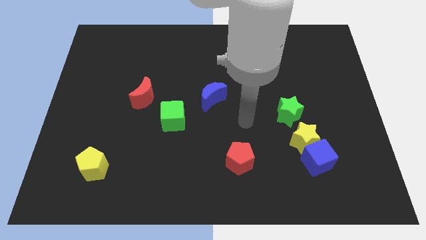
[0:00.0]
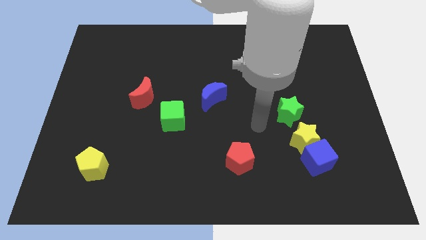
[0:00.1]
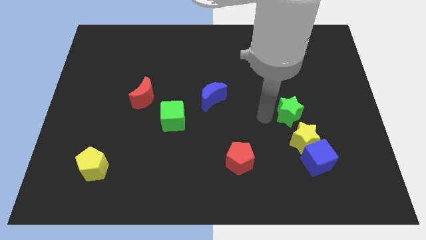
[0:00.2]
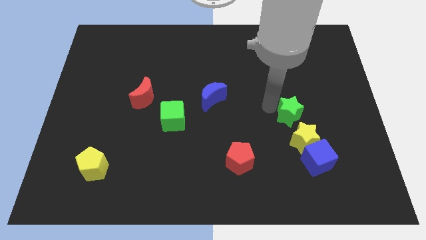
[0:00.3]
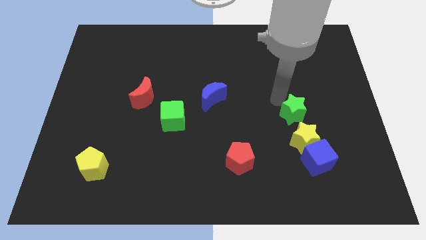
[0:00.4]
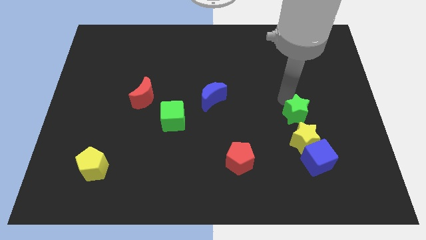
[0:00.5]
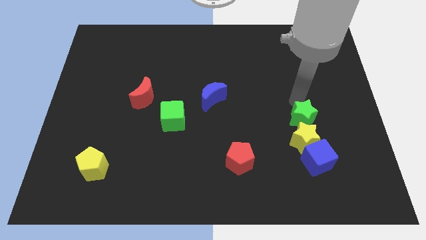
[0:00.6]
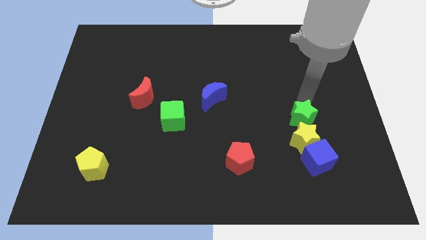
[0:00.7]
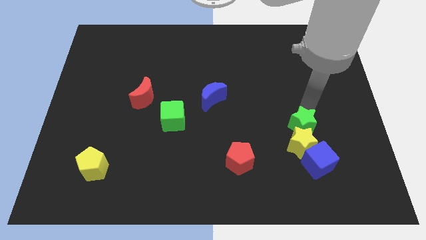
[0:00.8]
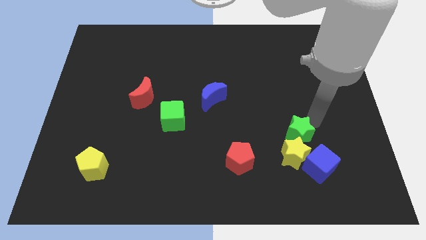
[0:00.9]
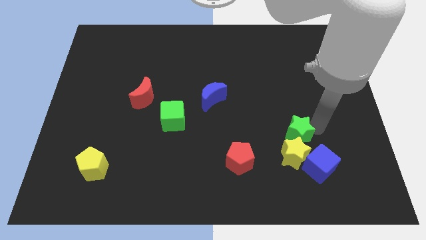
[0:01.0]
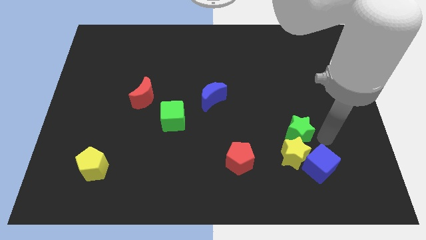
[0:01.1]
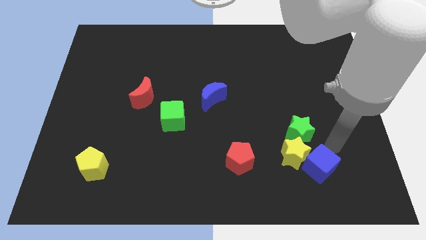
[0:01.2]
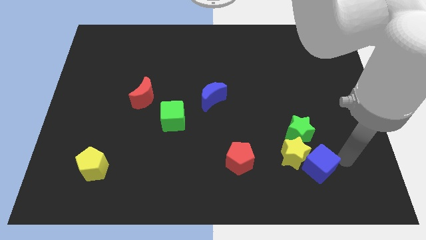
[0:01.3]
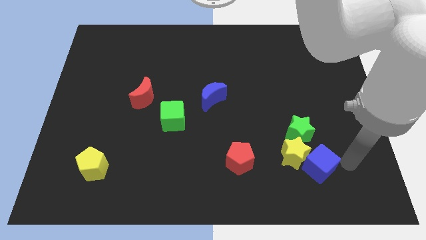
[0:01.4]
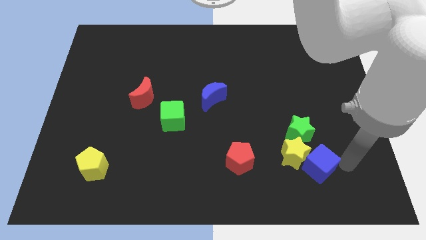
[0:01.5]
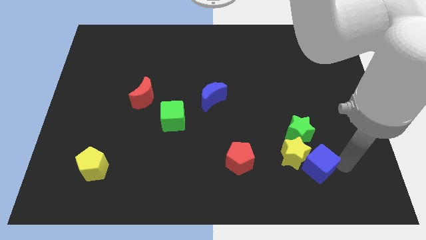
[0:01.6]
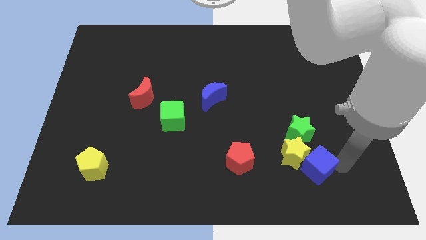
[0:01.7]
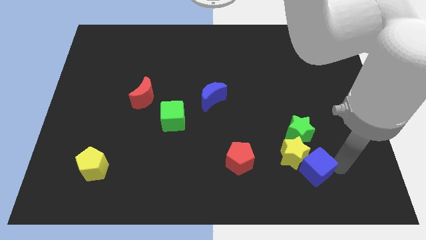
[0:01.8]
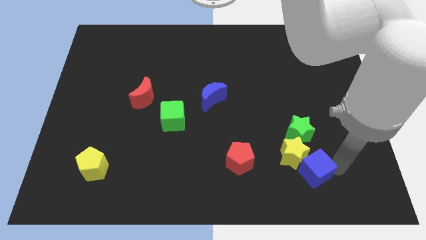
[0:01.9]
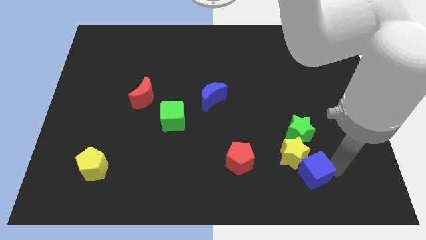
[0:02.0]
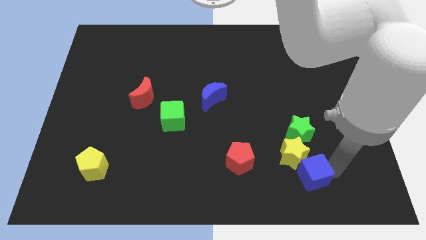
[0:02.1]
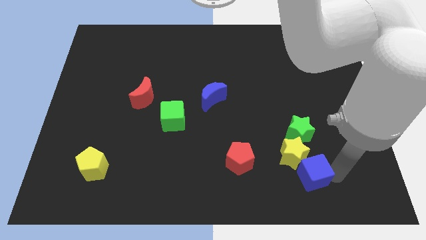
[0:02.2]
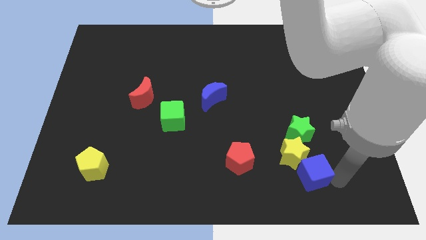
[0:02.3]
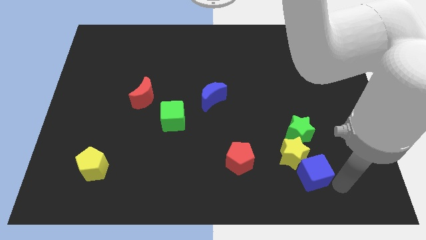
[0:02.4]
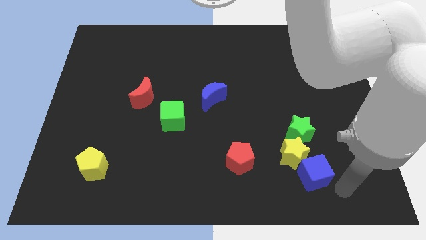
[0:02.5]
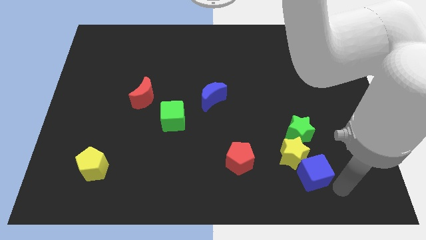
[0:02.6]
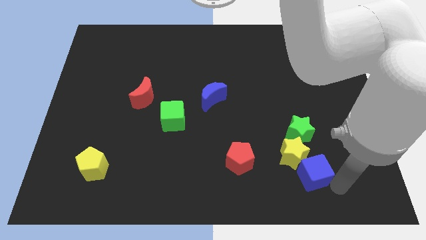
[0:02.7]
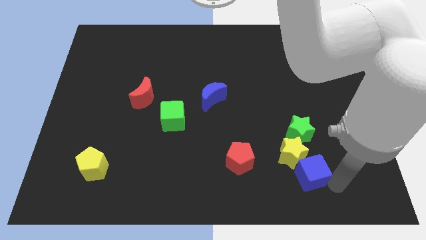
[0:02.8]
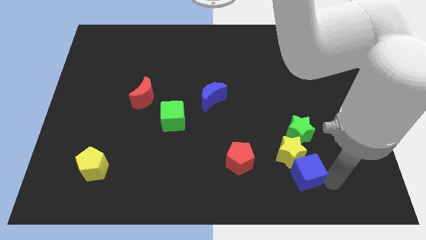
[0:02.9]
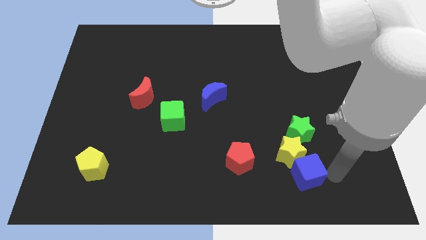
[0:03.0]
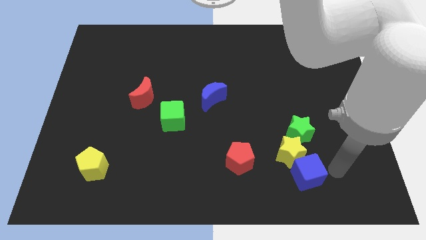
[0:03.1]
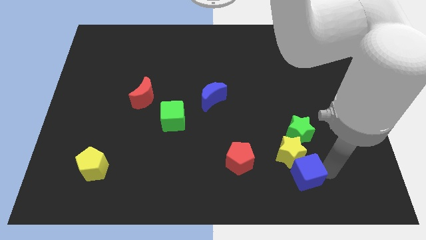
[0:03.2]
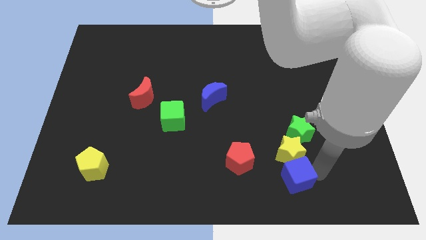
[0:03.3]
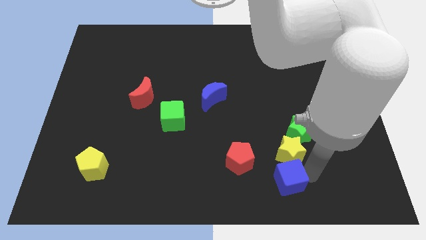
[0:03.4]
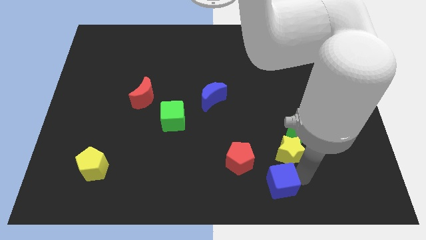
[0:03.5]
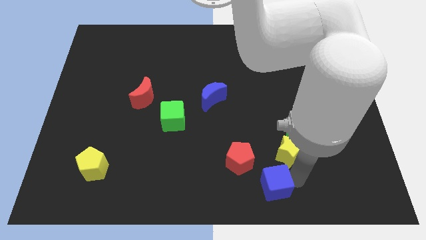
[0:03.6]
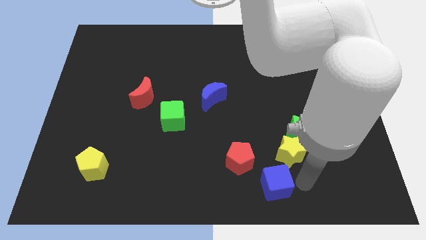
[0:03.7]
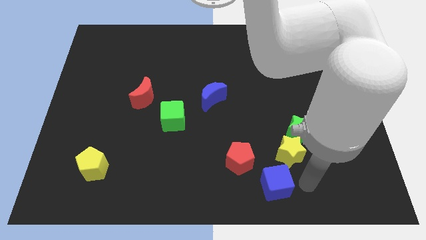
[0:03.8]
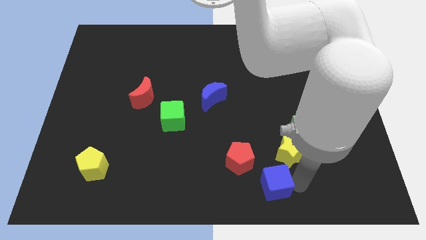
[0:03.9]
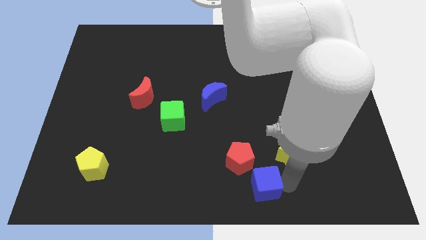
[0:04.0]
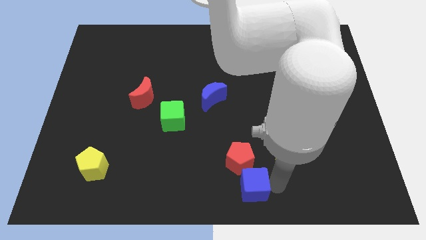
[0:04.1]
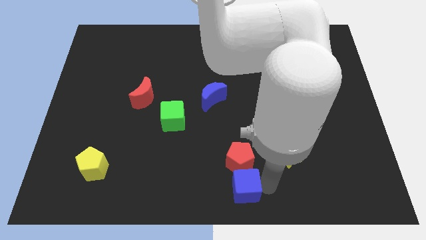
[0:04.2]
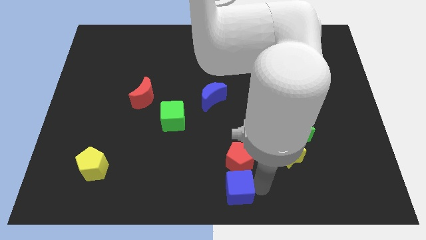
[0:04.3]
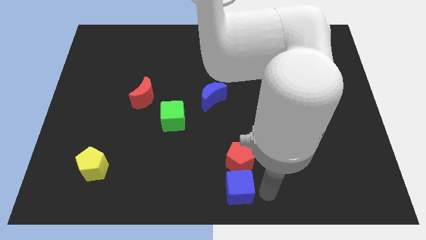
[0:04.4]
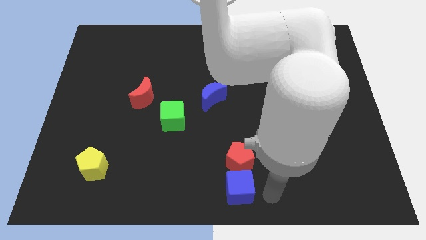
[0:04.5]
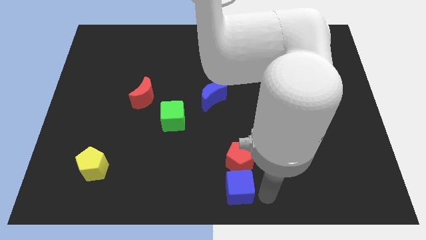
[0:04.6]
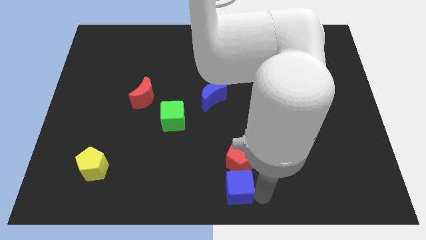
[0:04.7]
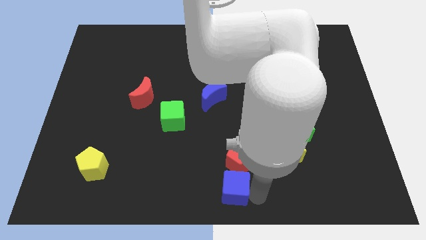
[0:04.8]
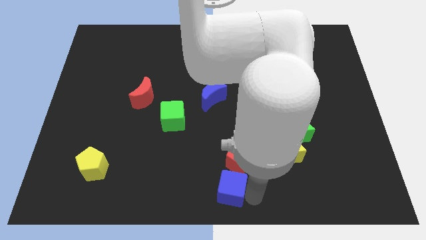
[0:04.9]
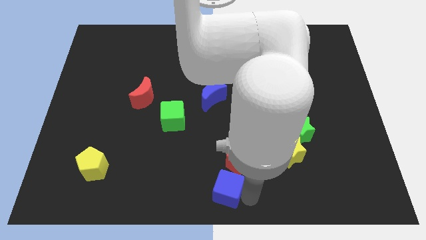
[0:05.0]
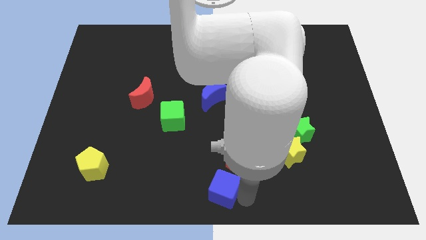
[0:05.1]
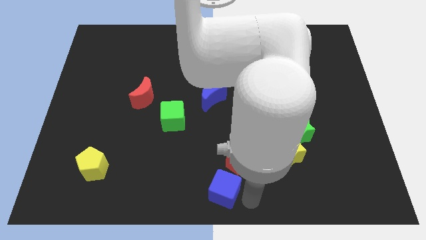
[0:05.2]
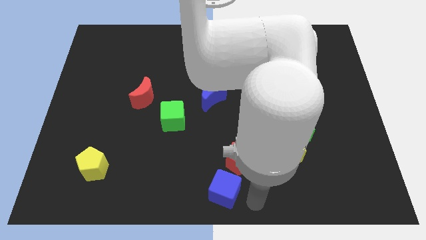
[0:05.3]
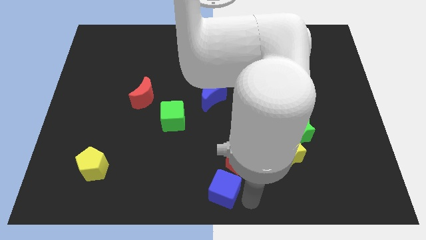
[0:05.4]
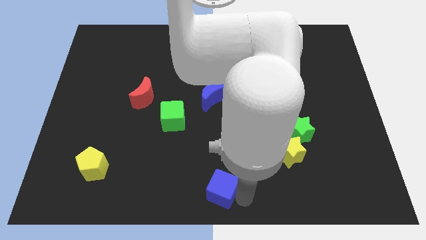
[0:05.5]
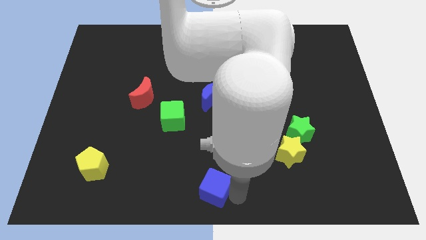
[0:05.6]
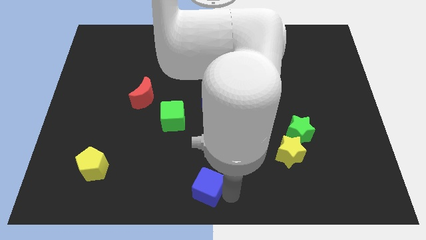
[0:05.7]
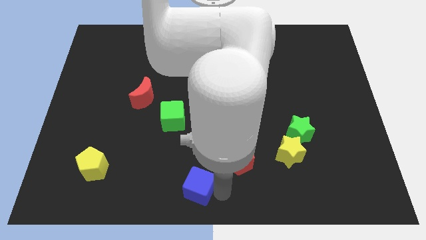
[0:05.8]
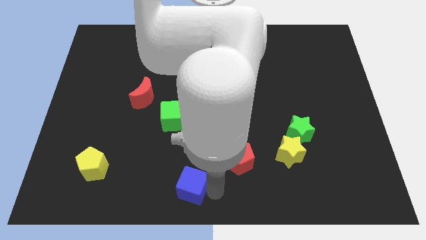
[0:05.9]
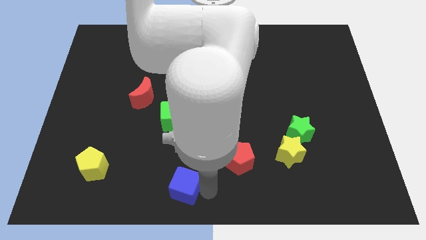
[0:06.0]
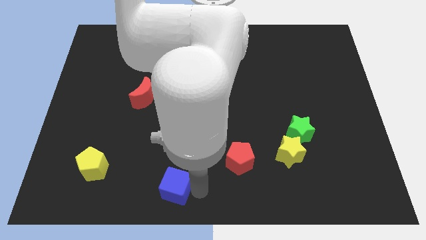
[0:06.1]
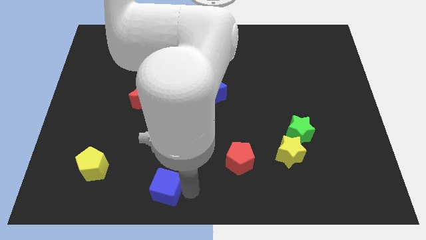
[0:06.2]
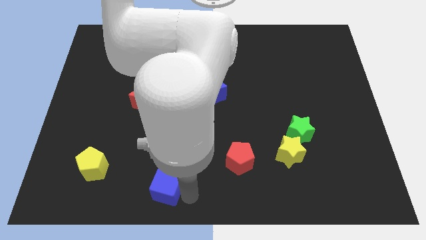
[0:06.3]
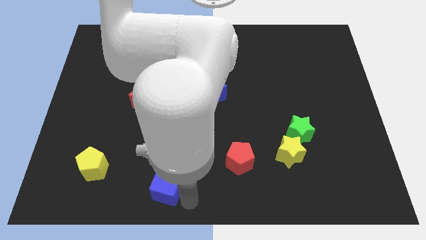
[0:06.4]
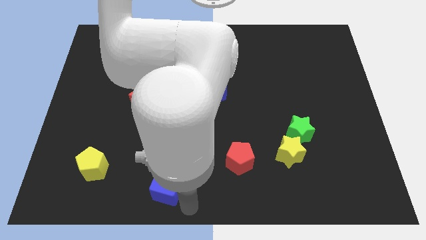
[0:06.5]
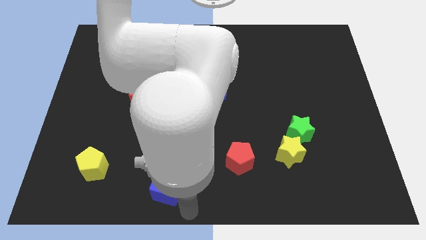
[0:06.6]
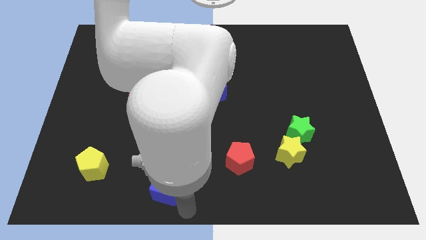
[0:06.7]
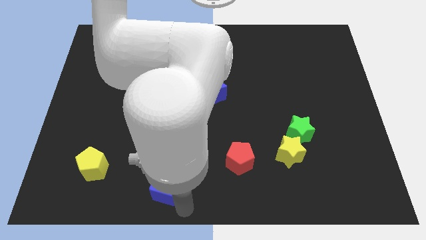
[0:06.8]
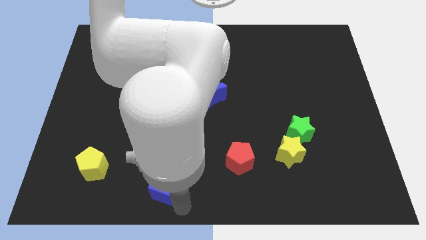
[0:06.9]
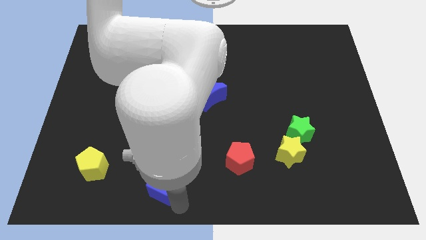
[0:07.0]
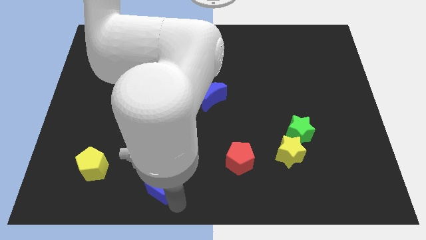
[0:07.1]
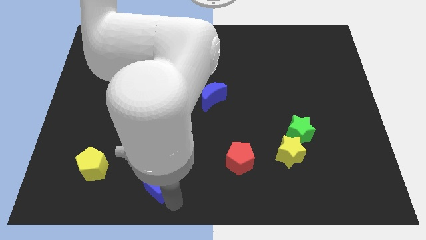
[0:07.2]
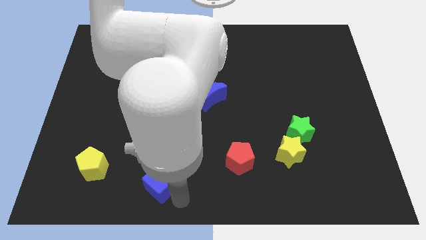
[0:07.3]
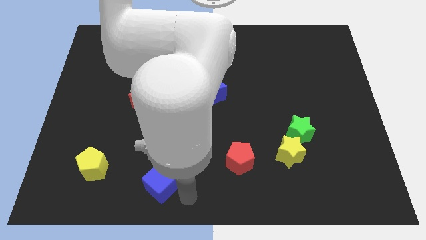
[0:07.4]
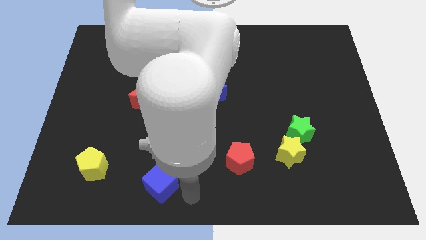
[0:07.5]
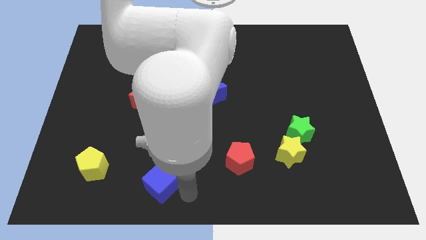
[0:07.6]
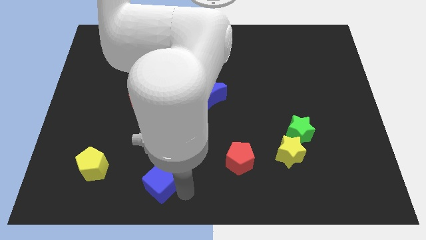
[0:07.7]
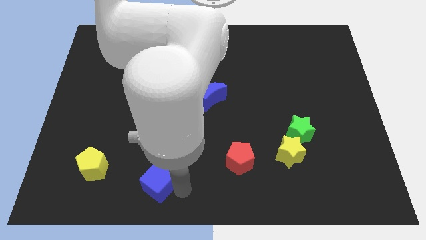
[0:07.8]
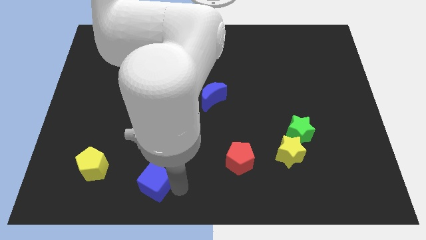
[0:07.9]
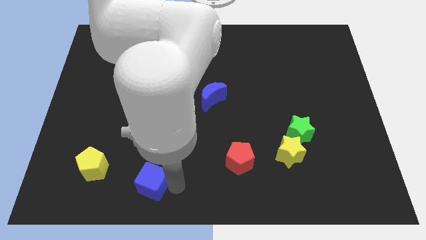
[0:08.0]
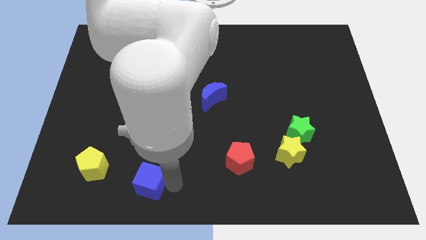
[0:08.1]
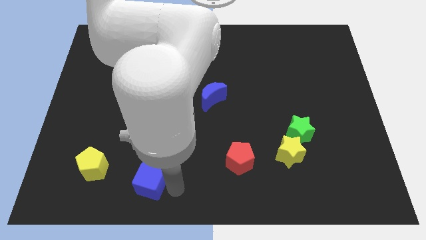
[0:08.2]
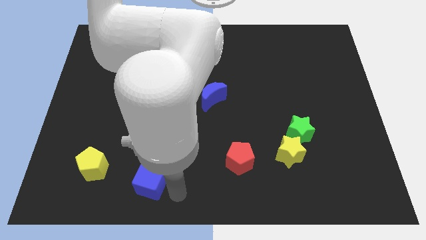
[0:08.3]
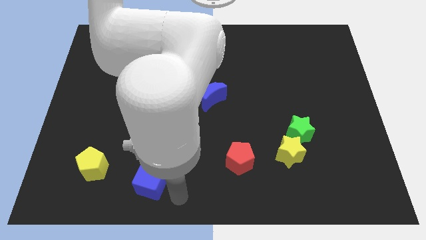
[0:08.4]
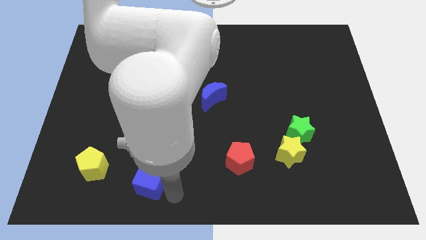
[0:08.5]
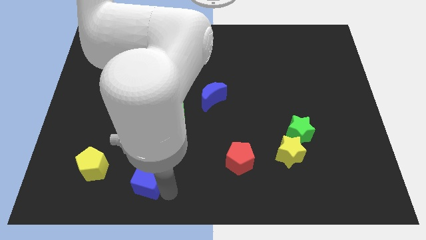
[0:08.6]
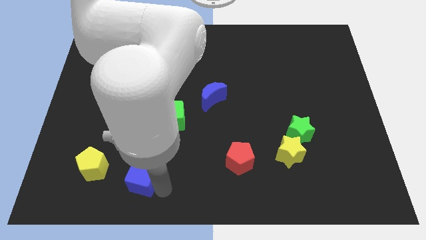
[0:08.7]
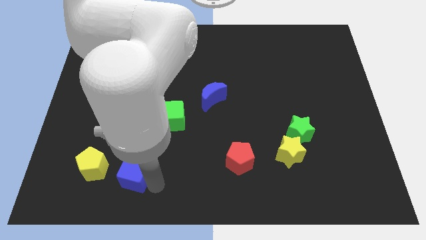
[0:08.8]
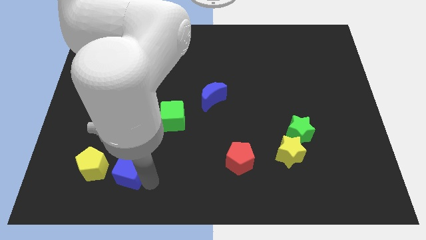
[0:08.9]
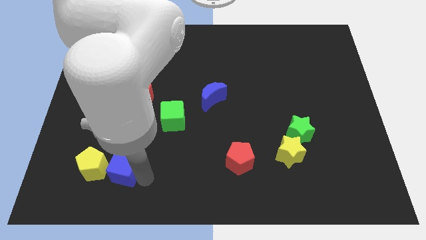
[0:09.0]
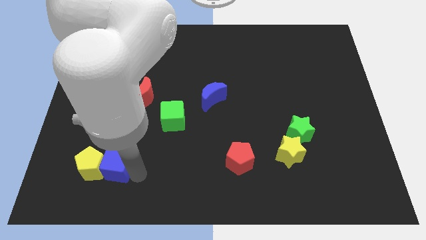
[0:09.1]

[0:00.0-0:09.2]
move the blue cube next to the yellow pentagon
